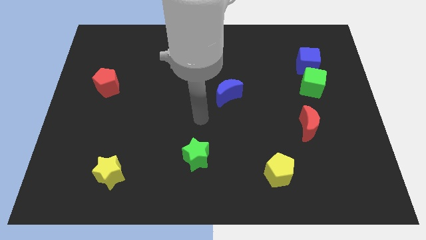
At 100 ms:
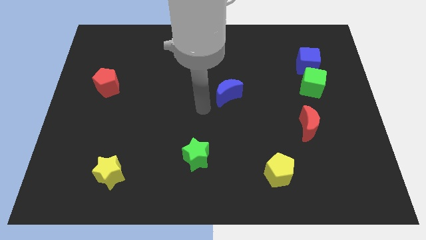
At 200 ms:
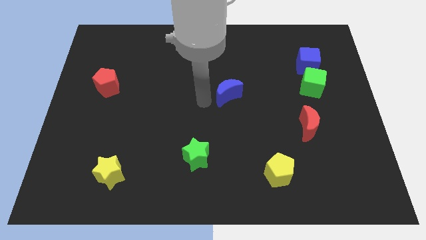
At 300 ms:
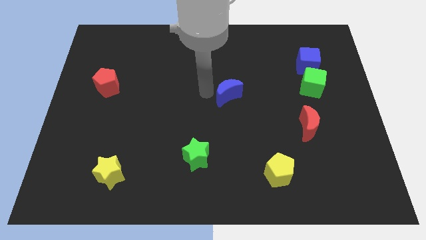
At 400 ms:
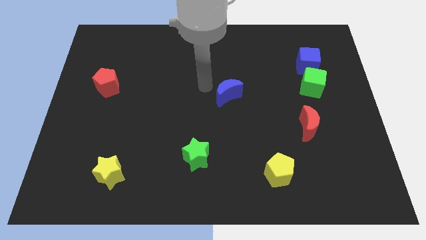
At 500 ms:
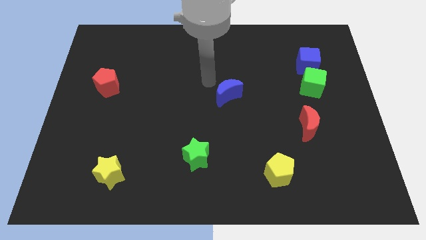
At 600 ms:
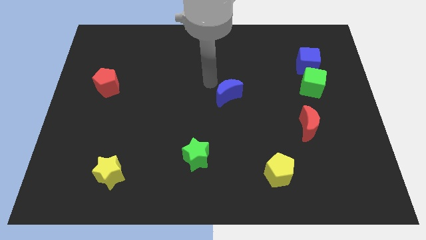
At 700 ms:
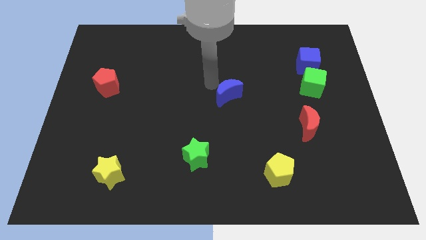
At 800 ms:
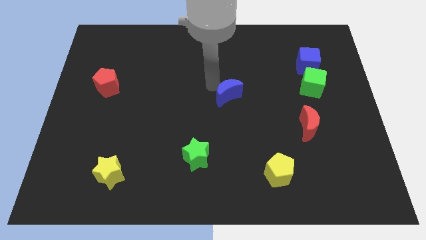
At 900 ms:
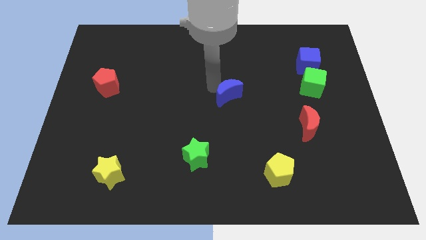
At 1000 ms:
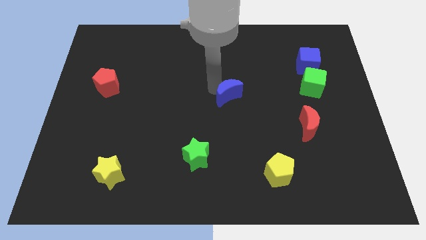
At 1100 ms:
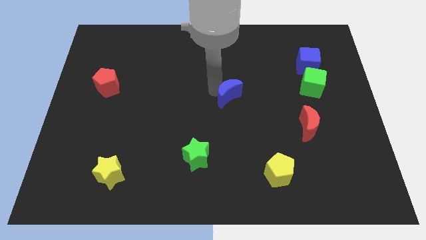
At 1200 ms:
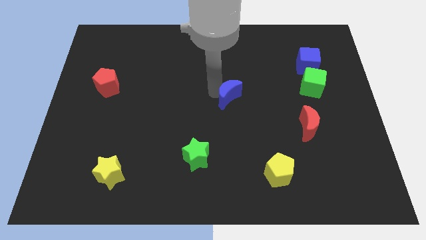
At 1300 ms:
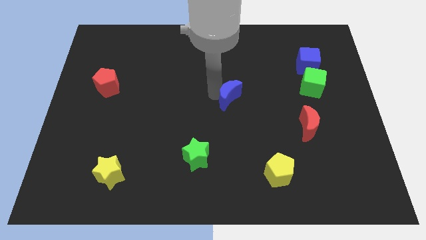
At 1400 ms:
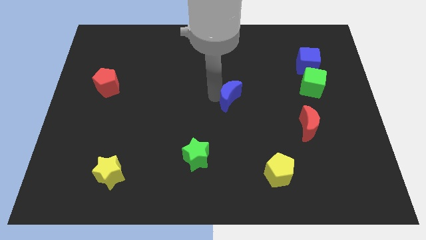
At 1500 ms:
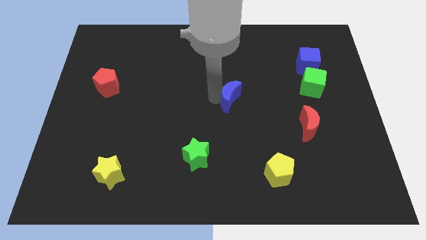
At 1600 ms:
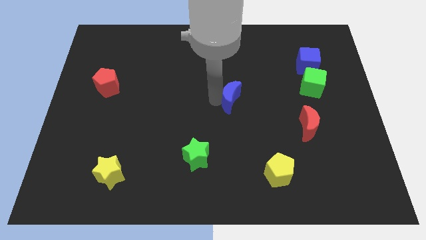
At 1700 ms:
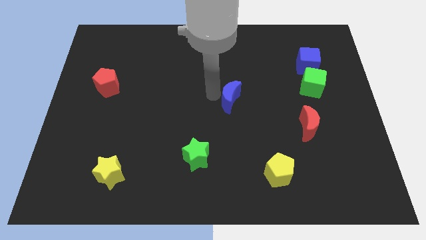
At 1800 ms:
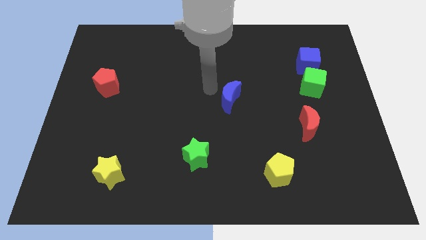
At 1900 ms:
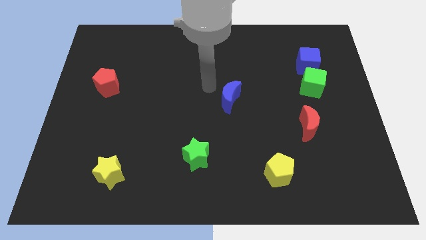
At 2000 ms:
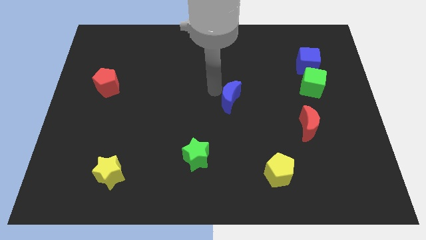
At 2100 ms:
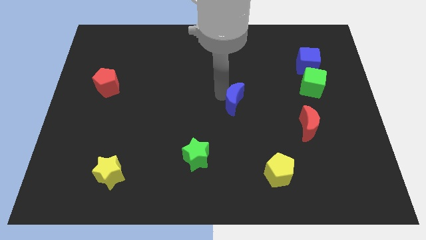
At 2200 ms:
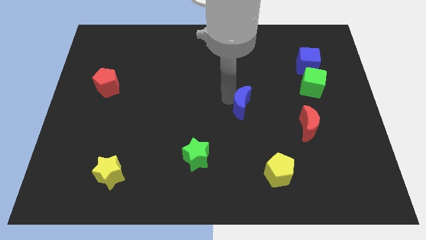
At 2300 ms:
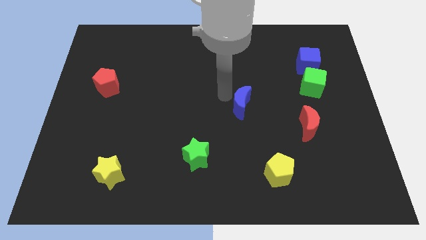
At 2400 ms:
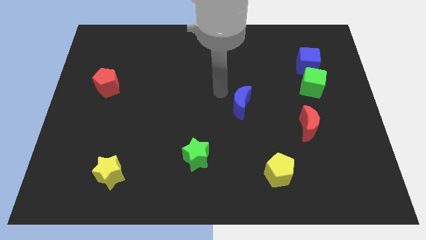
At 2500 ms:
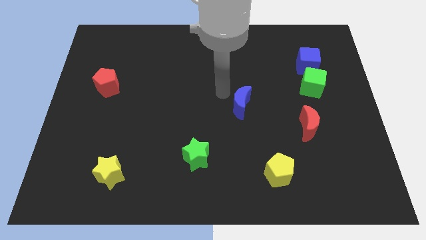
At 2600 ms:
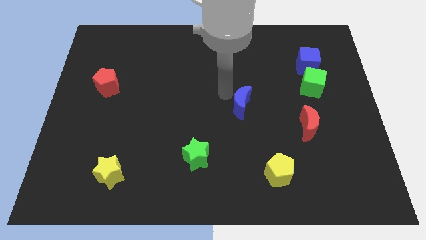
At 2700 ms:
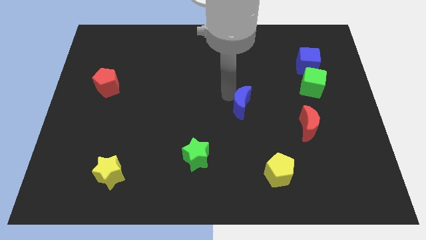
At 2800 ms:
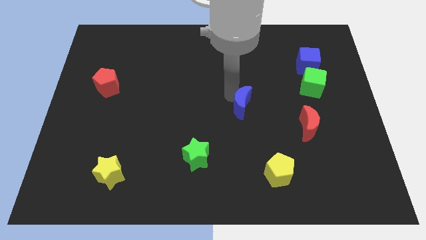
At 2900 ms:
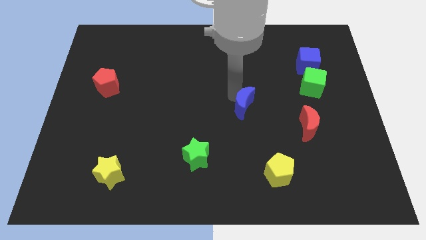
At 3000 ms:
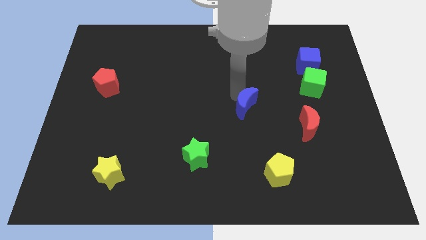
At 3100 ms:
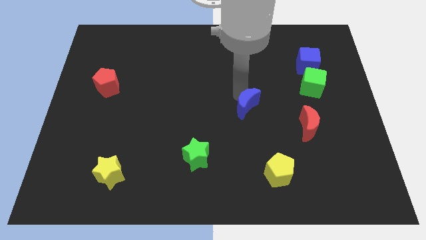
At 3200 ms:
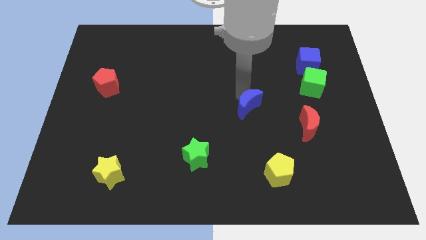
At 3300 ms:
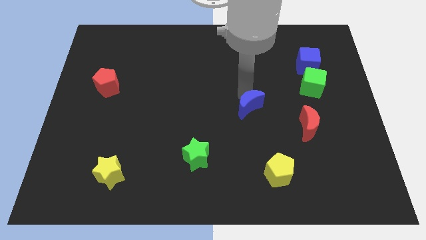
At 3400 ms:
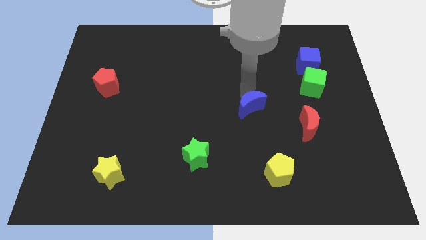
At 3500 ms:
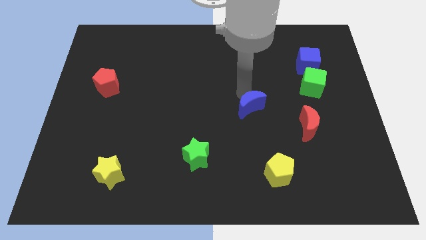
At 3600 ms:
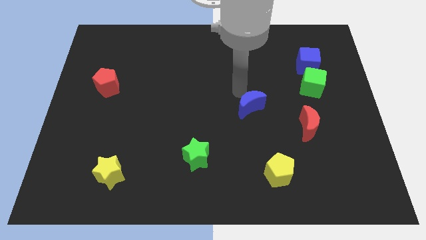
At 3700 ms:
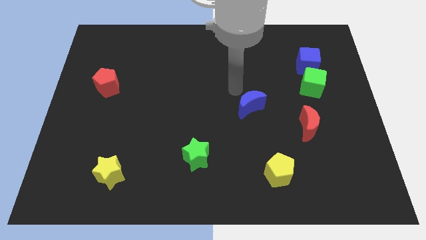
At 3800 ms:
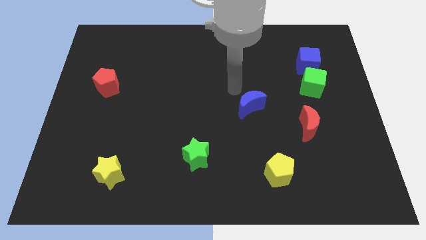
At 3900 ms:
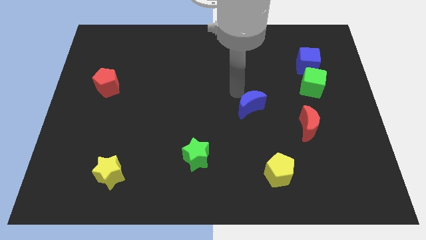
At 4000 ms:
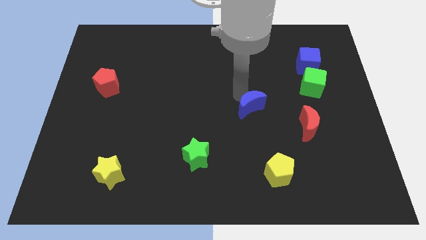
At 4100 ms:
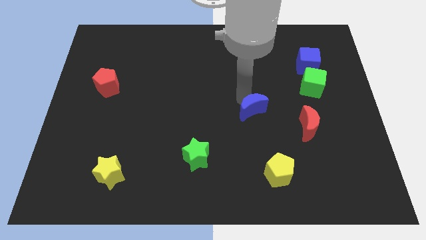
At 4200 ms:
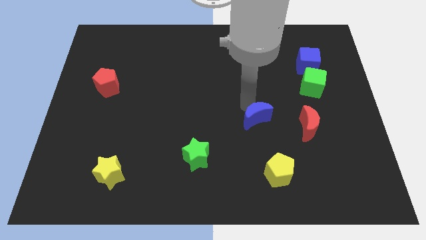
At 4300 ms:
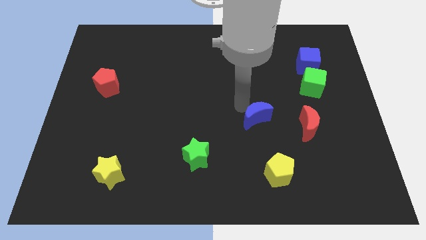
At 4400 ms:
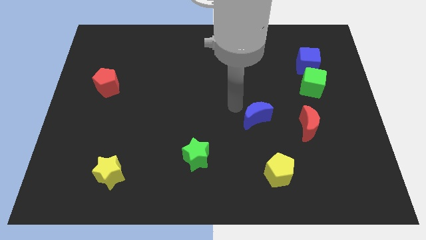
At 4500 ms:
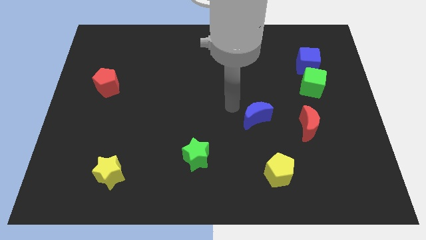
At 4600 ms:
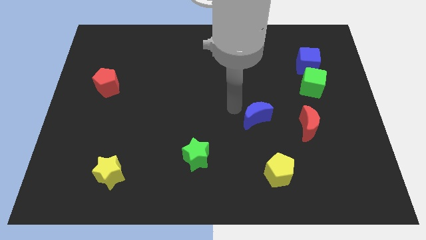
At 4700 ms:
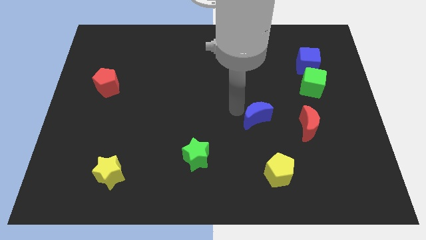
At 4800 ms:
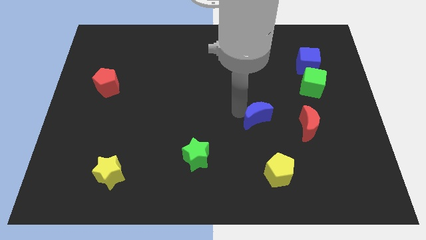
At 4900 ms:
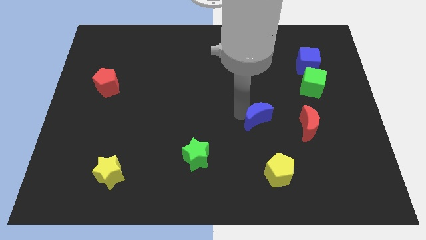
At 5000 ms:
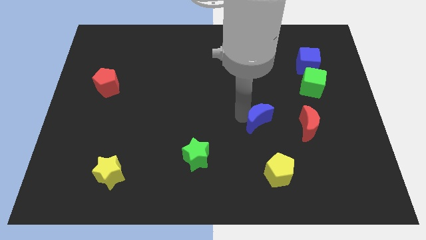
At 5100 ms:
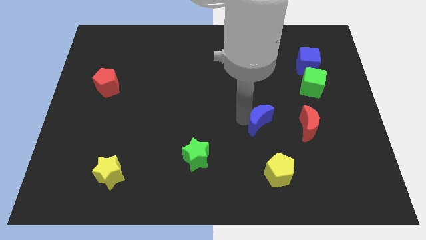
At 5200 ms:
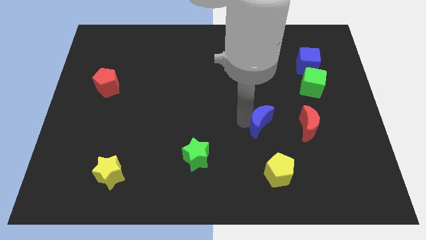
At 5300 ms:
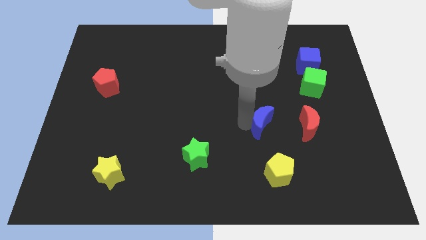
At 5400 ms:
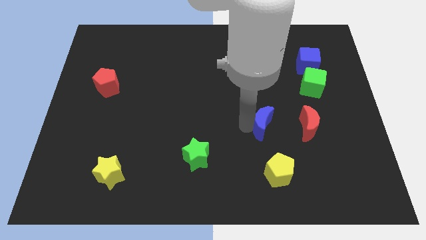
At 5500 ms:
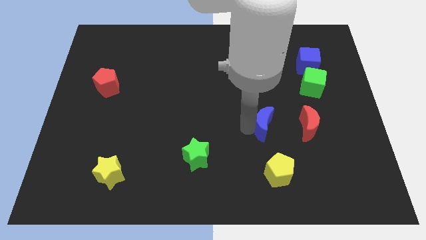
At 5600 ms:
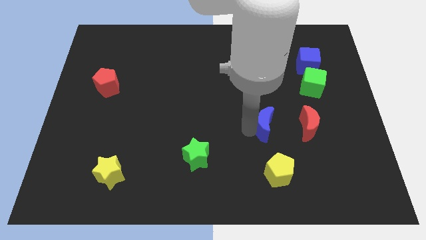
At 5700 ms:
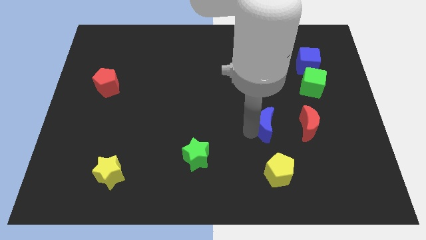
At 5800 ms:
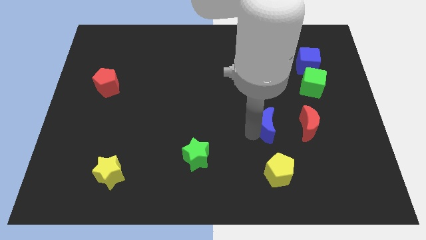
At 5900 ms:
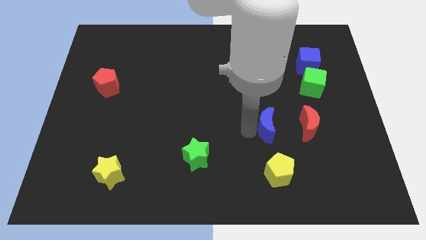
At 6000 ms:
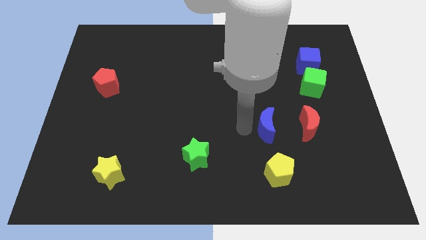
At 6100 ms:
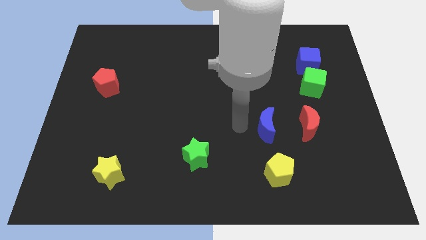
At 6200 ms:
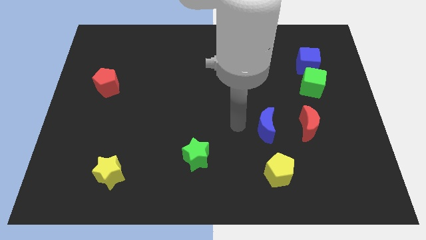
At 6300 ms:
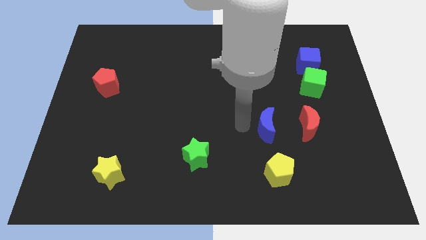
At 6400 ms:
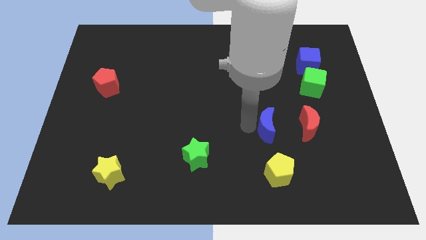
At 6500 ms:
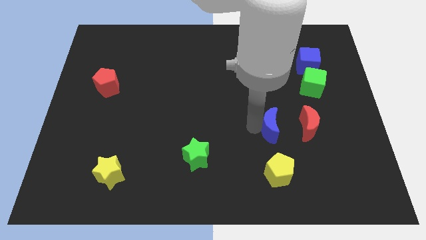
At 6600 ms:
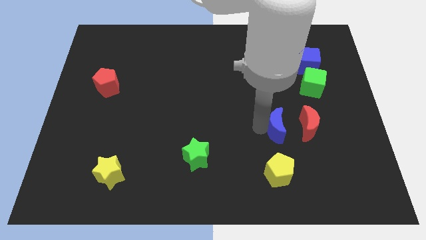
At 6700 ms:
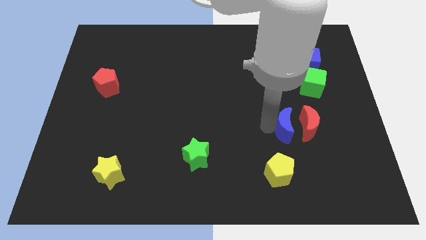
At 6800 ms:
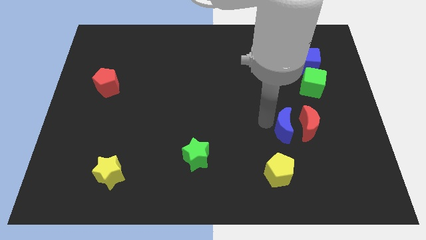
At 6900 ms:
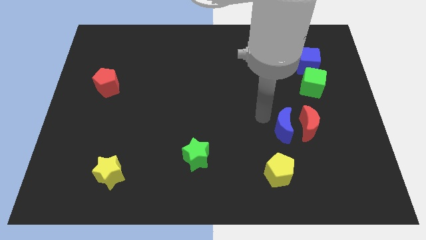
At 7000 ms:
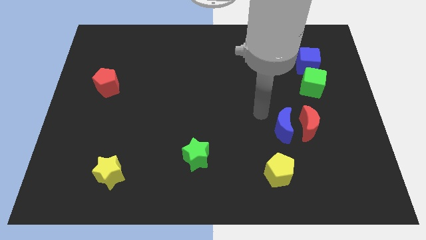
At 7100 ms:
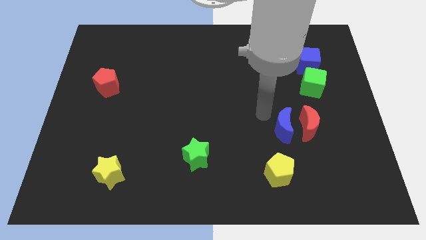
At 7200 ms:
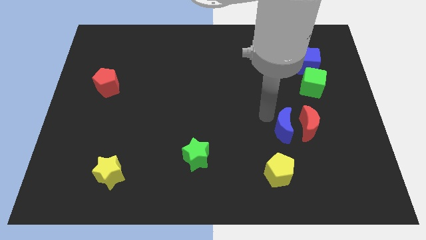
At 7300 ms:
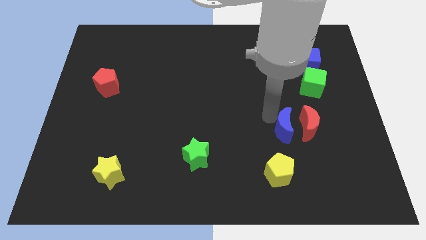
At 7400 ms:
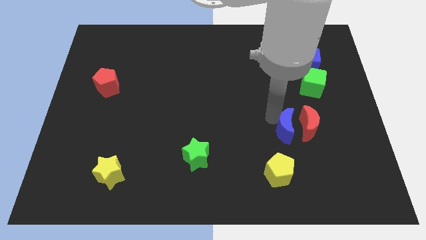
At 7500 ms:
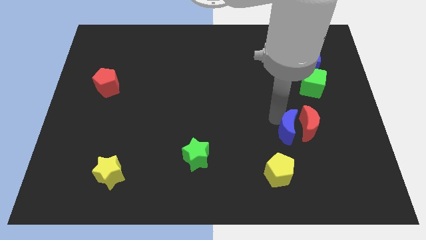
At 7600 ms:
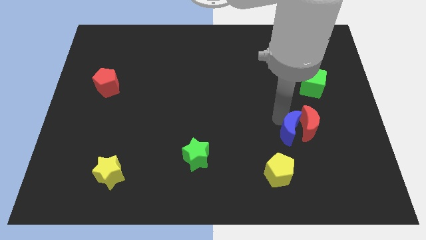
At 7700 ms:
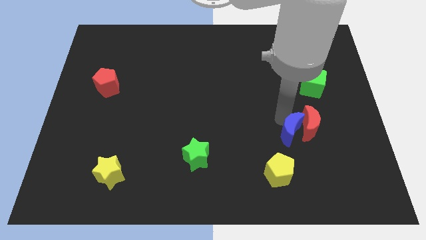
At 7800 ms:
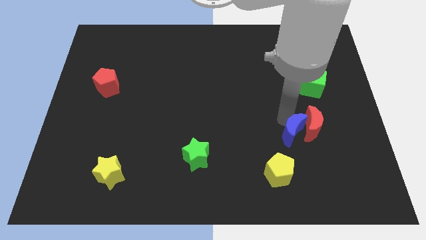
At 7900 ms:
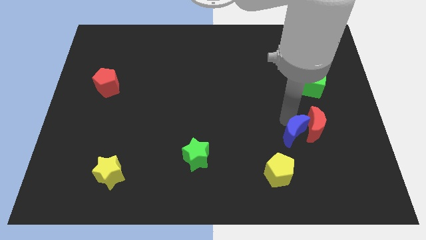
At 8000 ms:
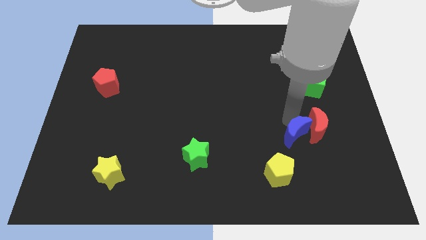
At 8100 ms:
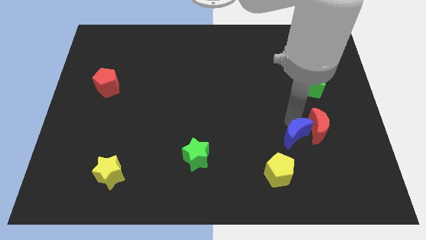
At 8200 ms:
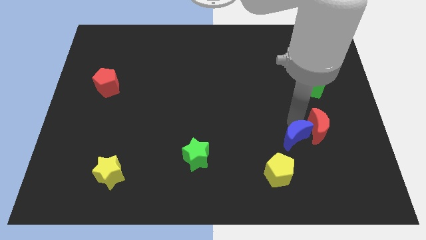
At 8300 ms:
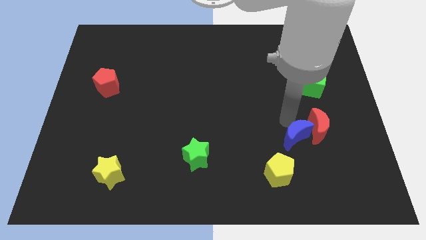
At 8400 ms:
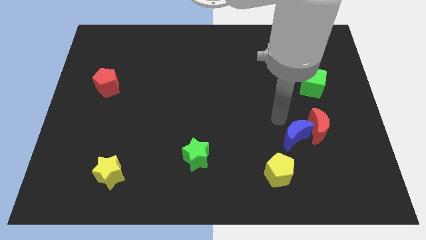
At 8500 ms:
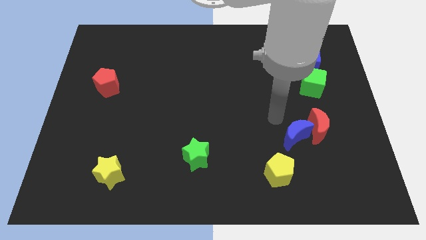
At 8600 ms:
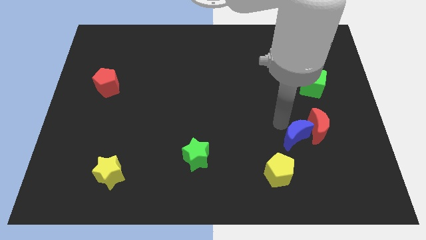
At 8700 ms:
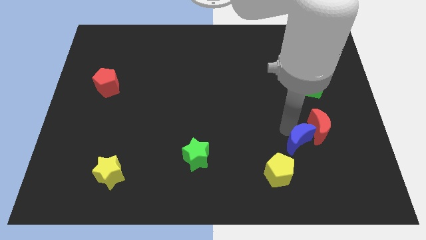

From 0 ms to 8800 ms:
move the blue moon diagonally downwards and right
